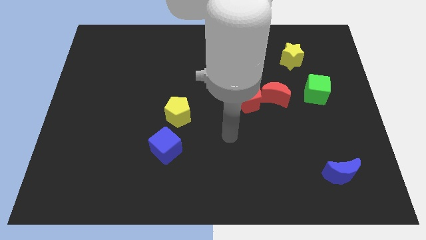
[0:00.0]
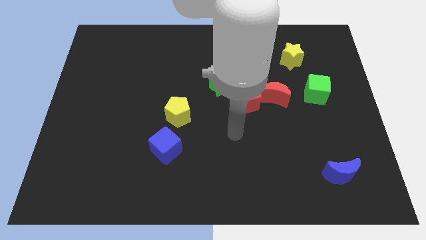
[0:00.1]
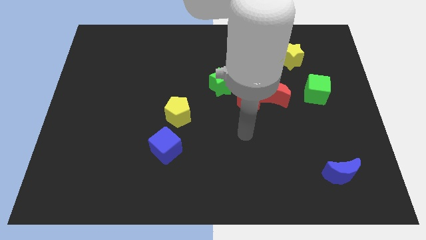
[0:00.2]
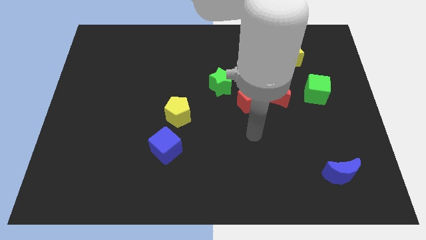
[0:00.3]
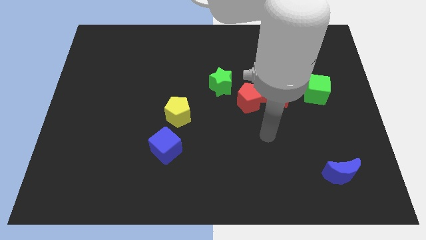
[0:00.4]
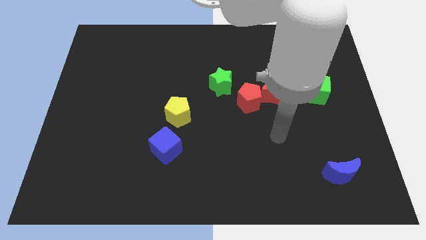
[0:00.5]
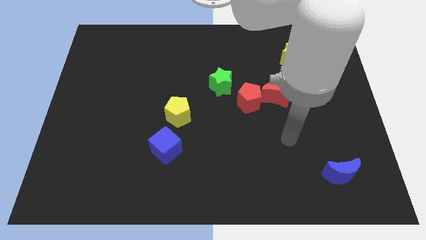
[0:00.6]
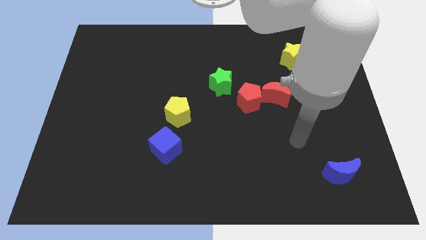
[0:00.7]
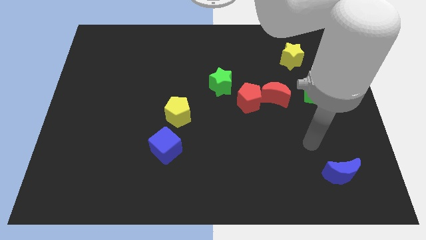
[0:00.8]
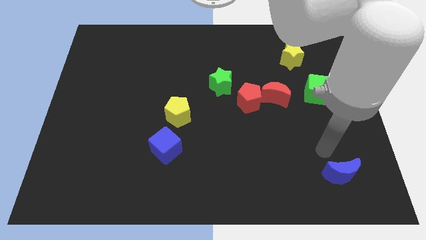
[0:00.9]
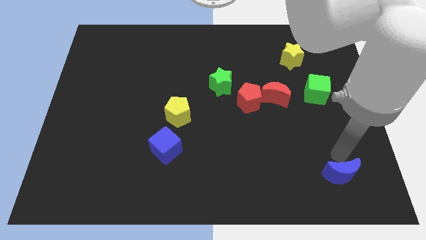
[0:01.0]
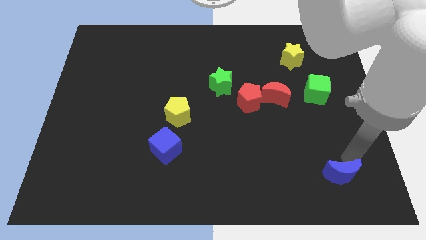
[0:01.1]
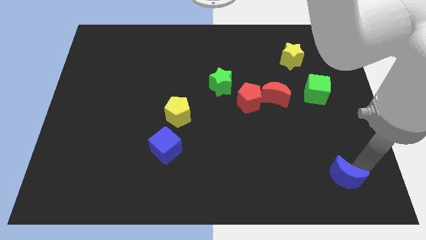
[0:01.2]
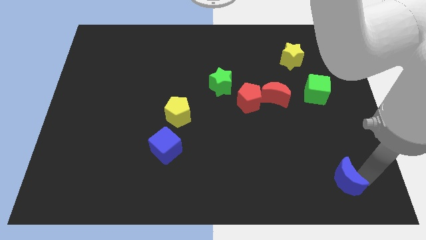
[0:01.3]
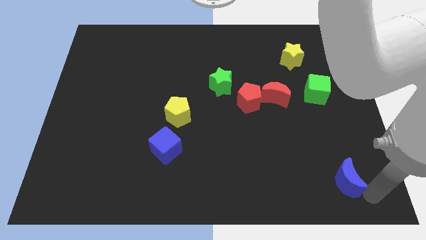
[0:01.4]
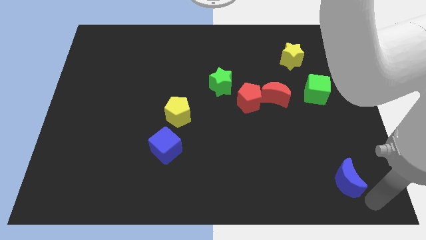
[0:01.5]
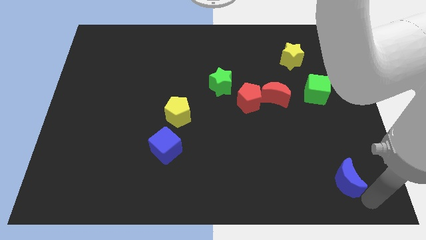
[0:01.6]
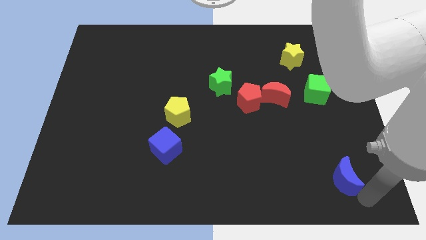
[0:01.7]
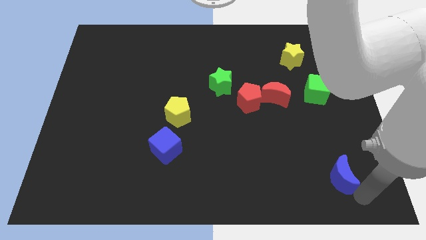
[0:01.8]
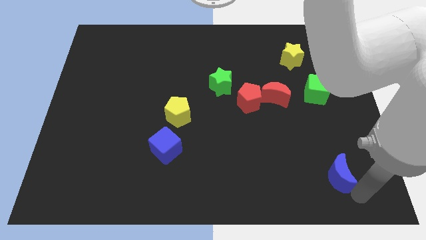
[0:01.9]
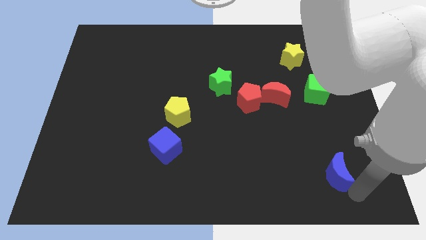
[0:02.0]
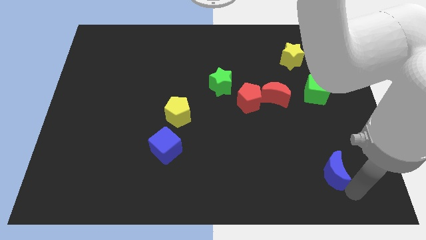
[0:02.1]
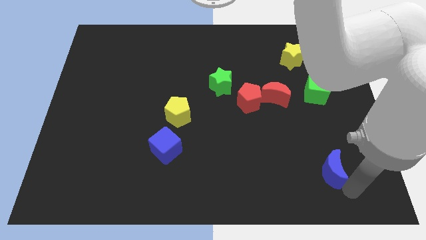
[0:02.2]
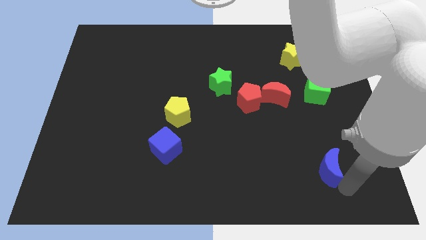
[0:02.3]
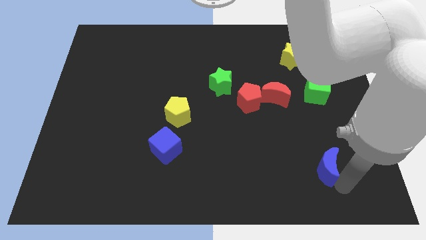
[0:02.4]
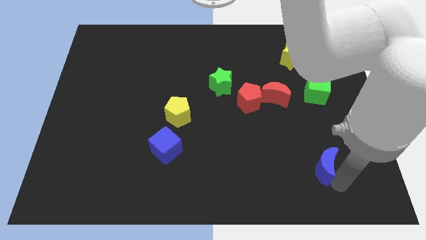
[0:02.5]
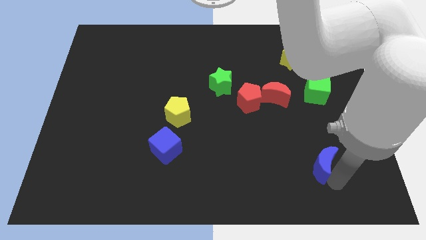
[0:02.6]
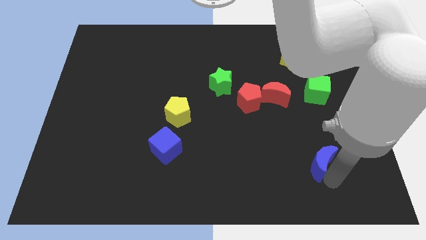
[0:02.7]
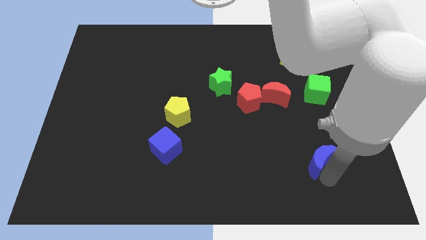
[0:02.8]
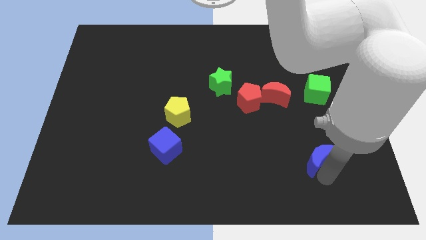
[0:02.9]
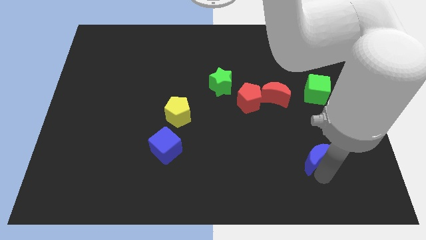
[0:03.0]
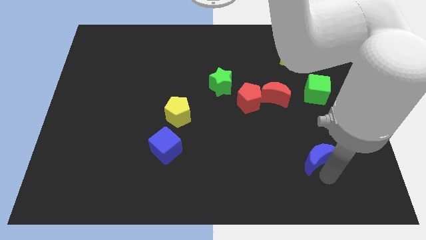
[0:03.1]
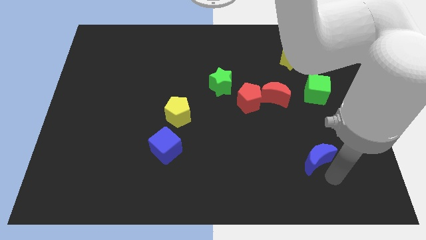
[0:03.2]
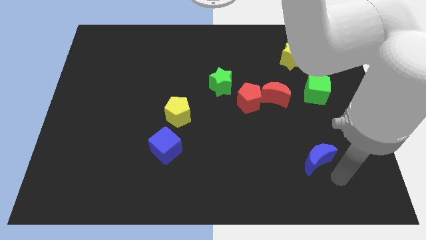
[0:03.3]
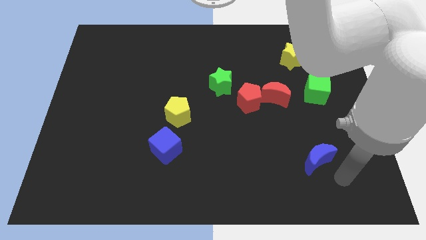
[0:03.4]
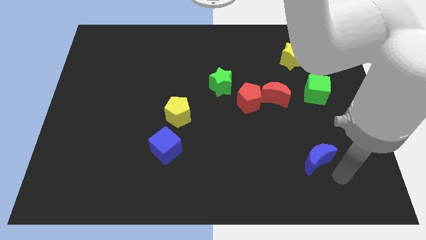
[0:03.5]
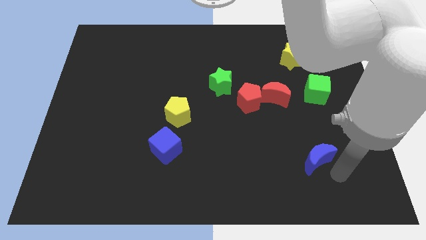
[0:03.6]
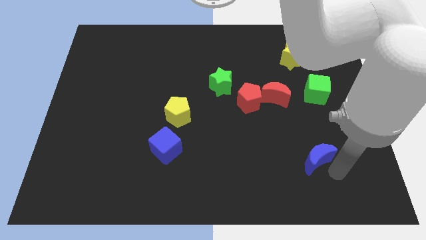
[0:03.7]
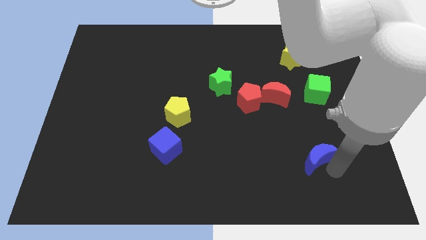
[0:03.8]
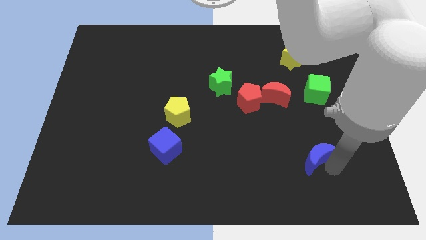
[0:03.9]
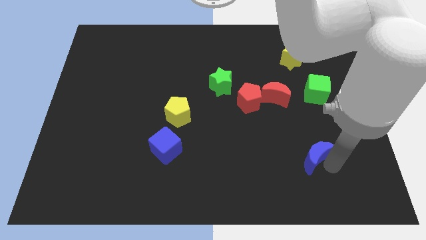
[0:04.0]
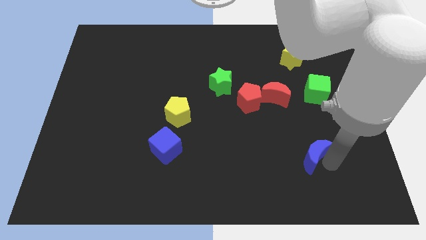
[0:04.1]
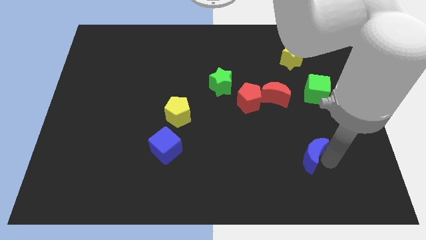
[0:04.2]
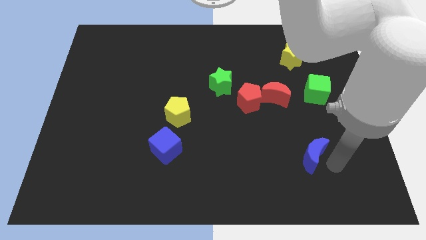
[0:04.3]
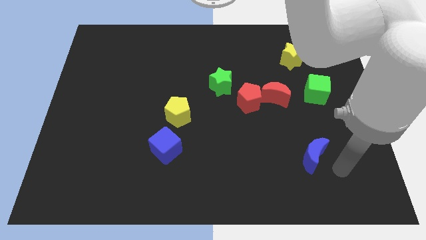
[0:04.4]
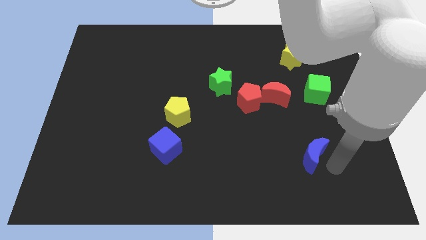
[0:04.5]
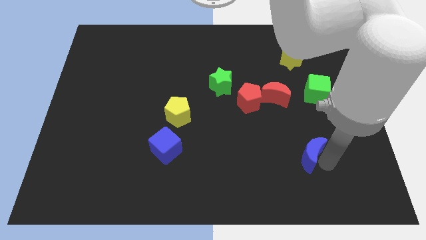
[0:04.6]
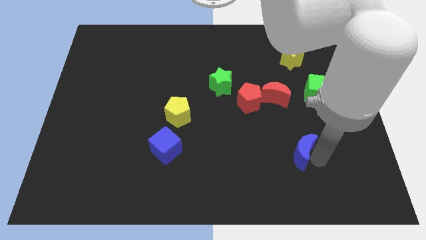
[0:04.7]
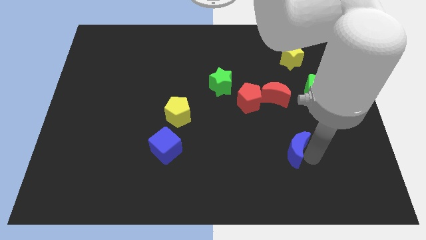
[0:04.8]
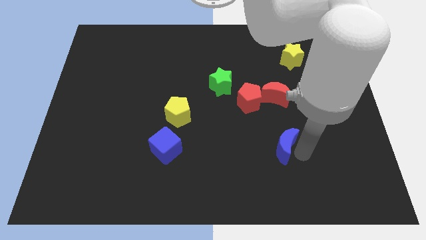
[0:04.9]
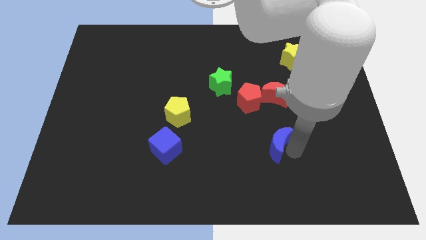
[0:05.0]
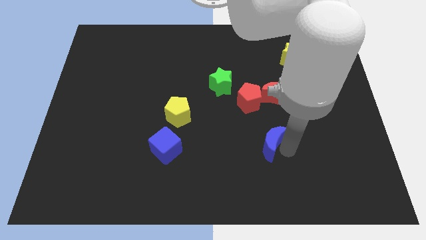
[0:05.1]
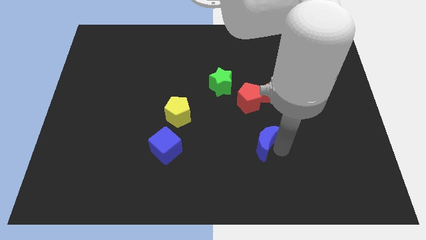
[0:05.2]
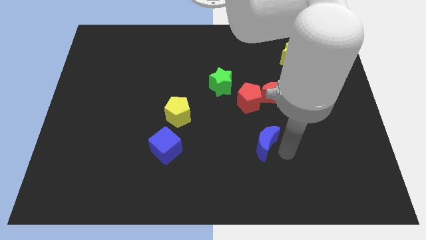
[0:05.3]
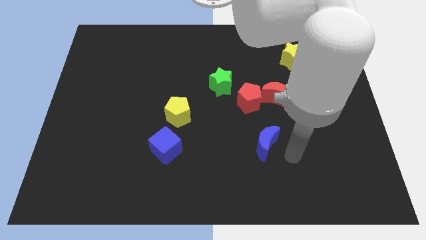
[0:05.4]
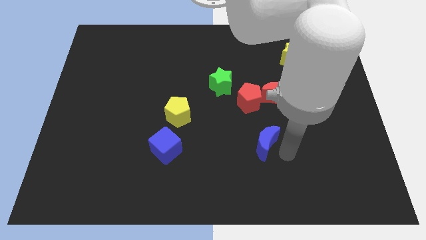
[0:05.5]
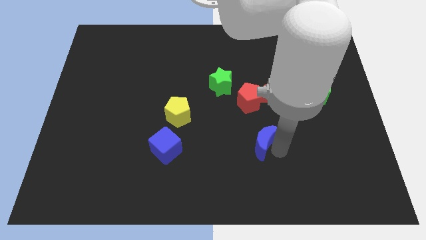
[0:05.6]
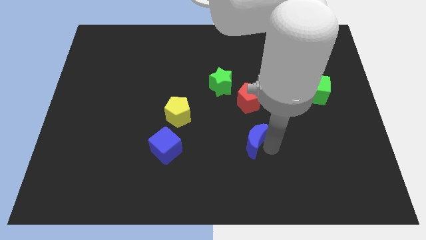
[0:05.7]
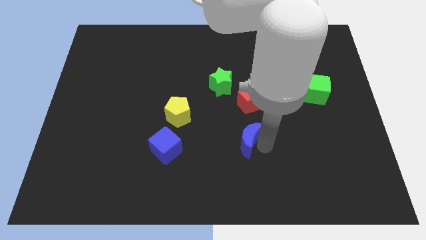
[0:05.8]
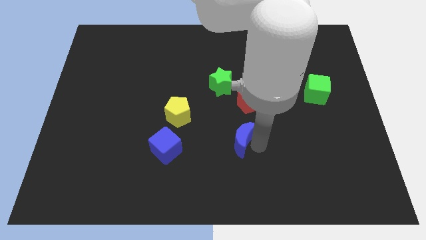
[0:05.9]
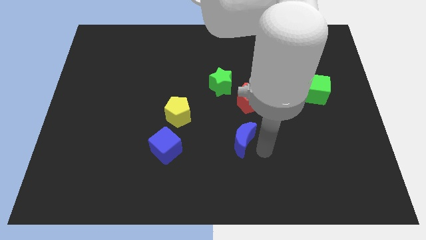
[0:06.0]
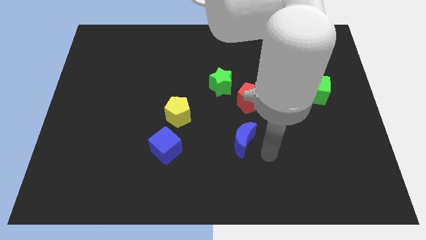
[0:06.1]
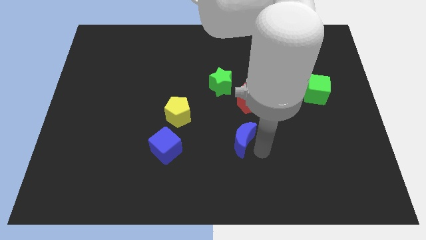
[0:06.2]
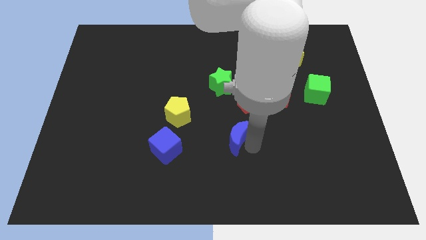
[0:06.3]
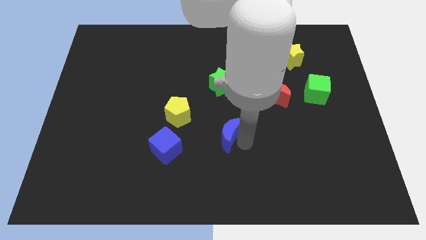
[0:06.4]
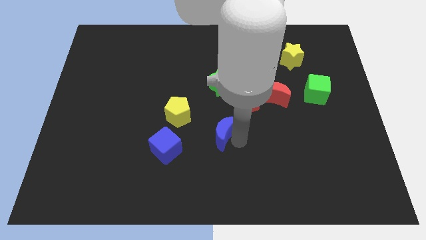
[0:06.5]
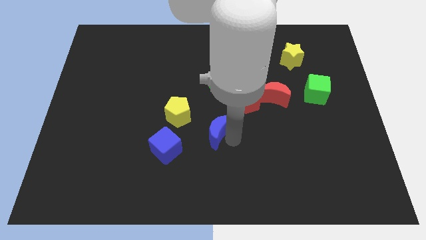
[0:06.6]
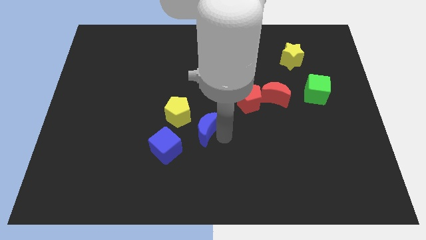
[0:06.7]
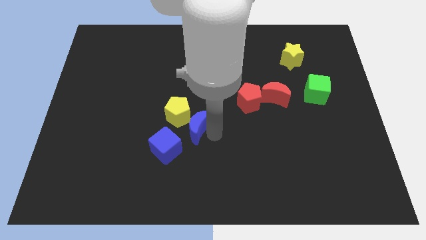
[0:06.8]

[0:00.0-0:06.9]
move the blue moon next to the yellow pentagon

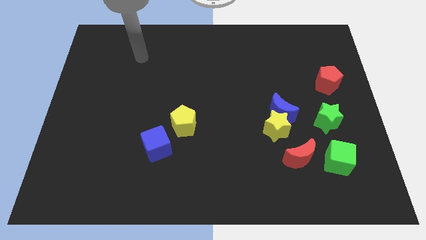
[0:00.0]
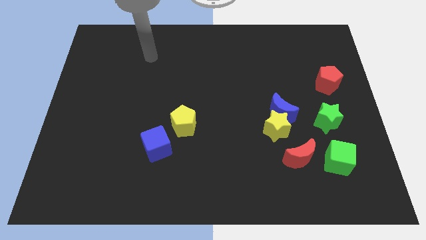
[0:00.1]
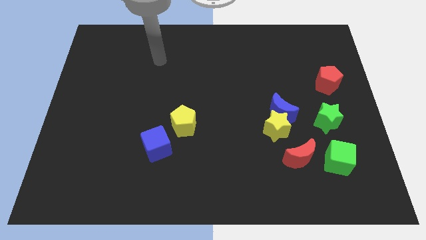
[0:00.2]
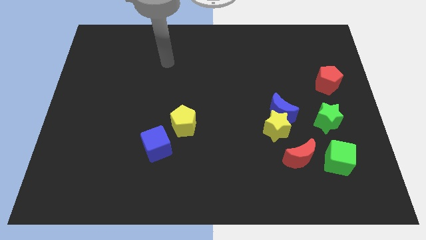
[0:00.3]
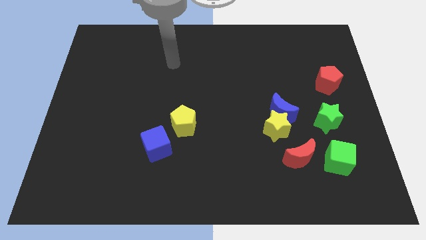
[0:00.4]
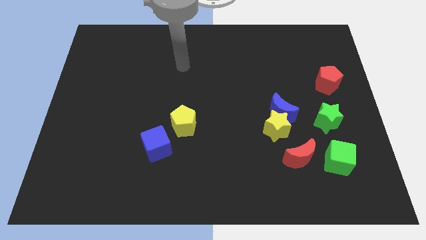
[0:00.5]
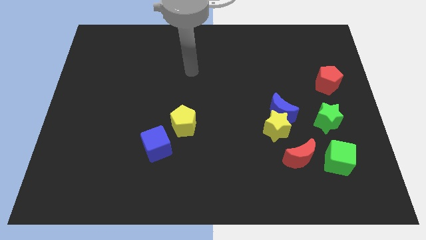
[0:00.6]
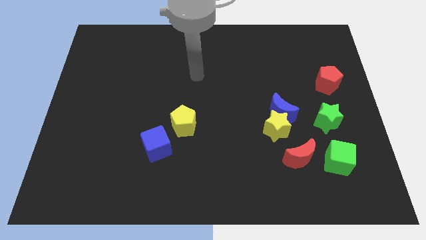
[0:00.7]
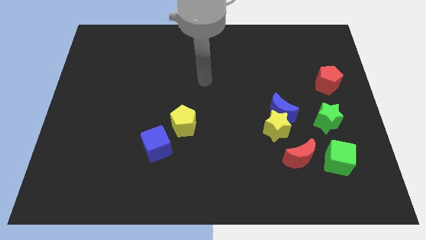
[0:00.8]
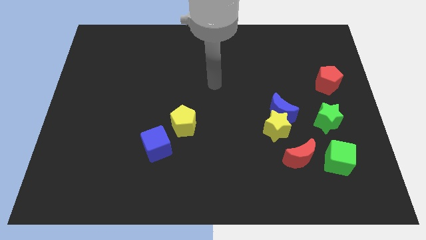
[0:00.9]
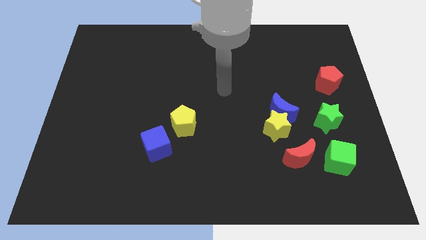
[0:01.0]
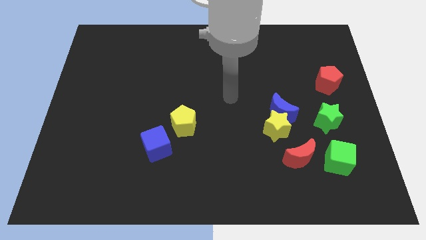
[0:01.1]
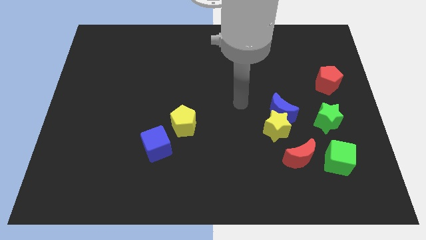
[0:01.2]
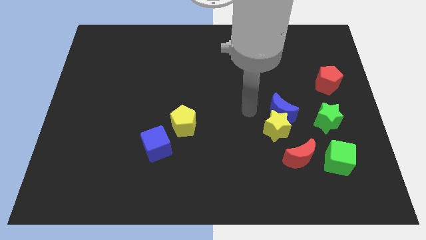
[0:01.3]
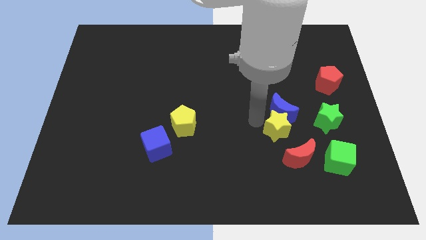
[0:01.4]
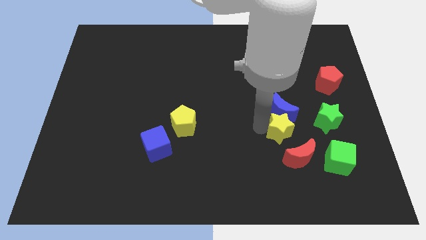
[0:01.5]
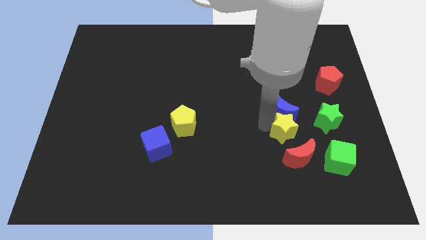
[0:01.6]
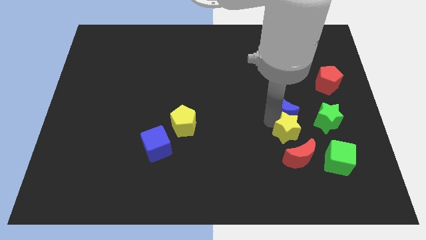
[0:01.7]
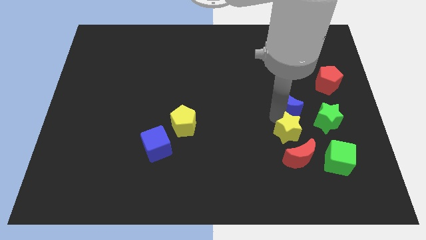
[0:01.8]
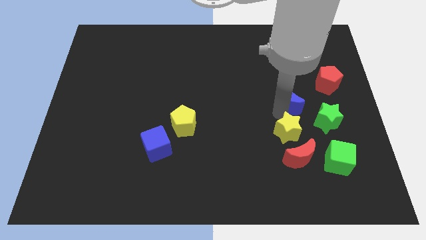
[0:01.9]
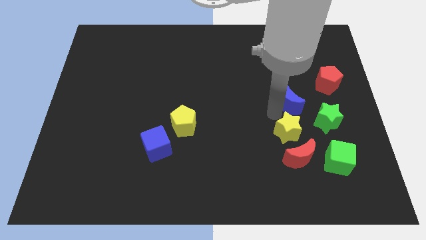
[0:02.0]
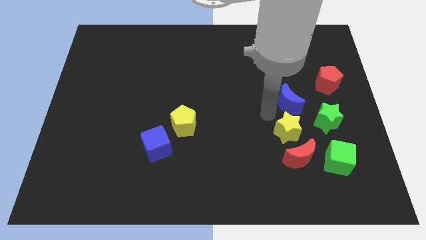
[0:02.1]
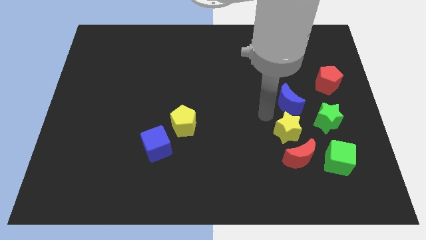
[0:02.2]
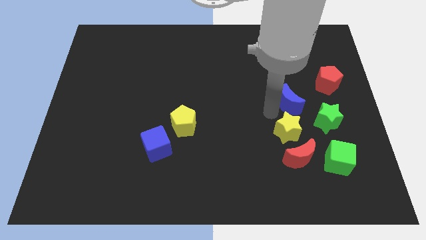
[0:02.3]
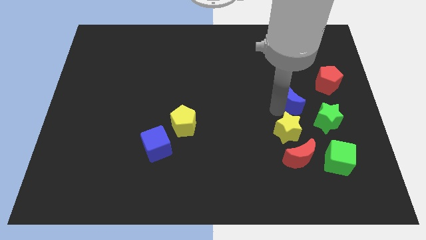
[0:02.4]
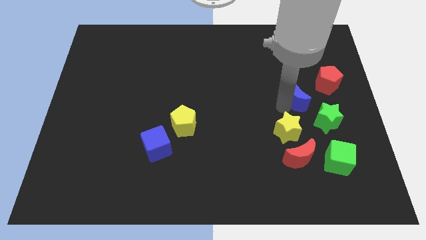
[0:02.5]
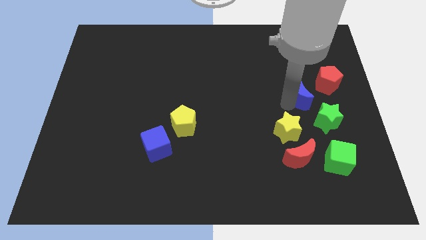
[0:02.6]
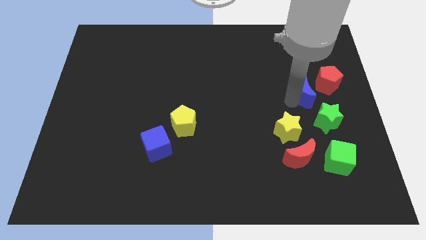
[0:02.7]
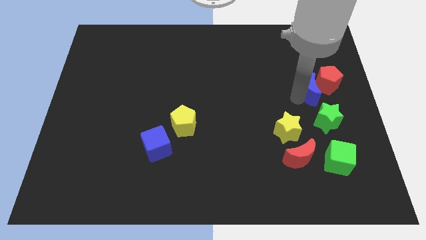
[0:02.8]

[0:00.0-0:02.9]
put the blue moon next to the red pentagon
